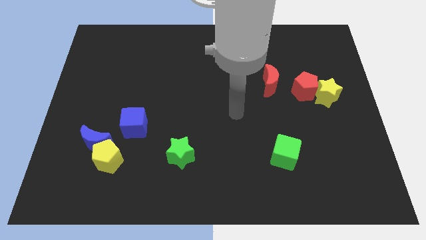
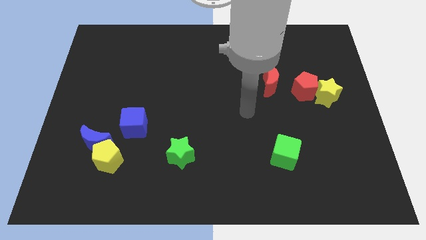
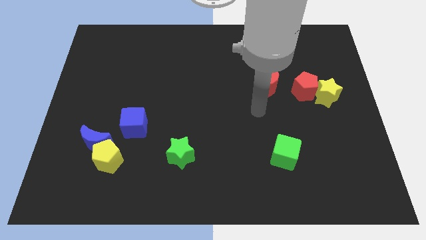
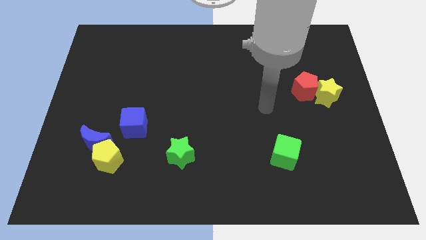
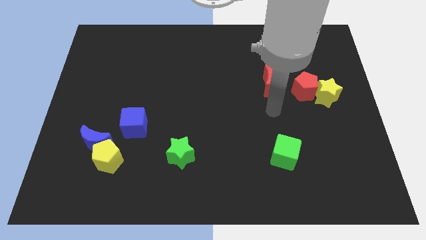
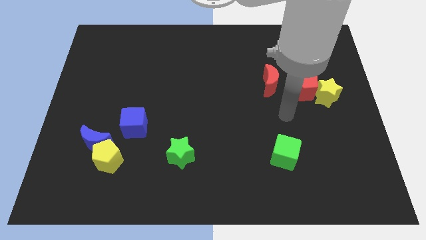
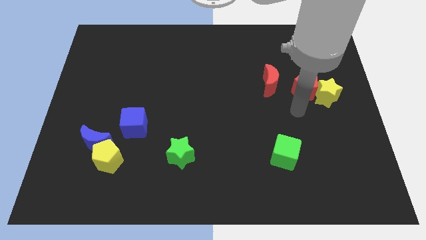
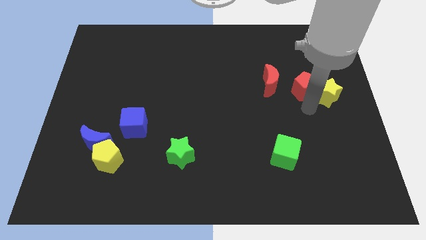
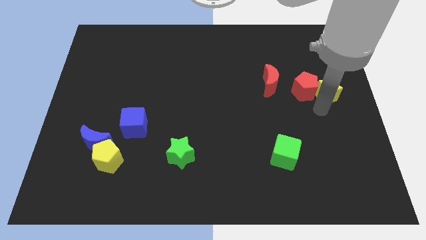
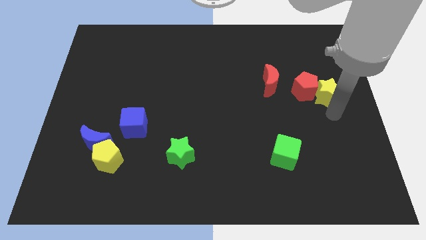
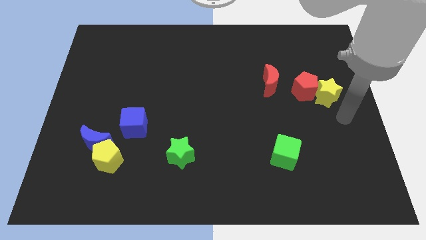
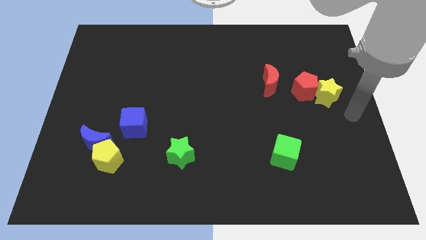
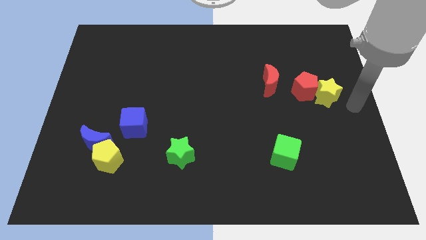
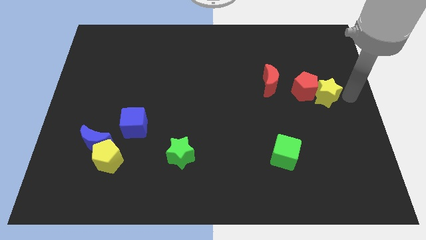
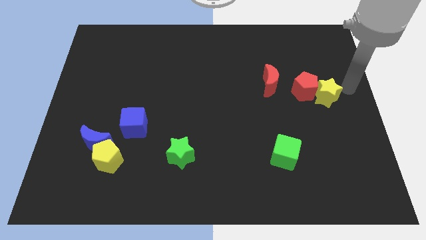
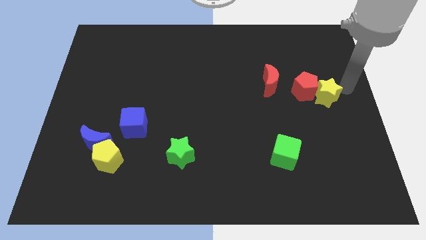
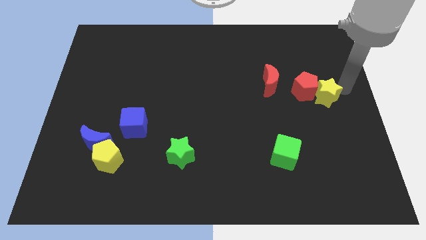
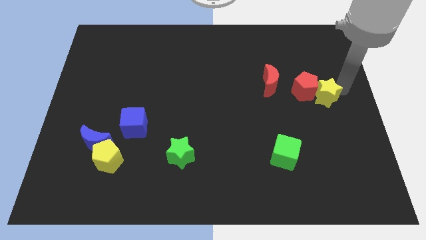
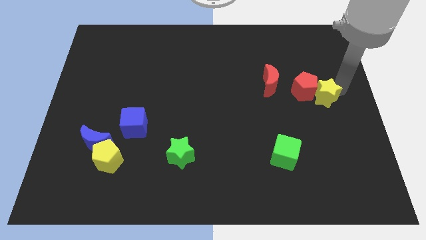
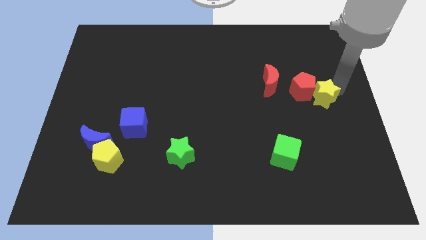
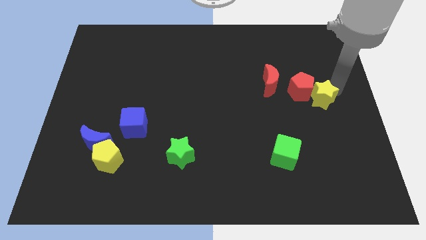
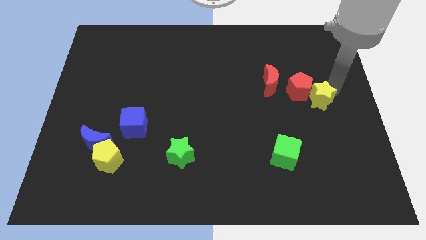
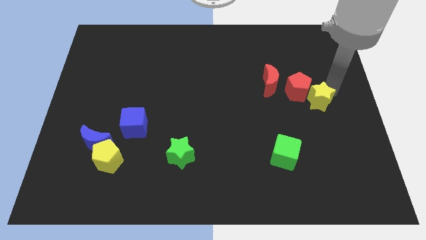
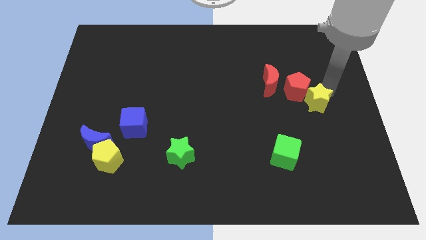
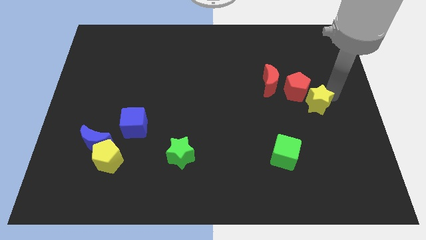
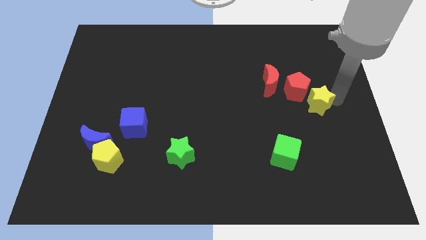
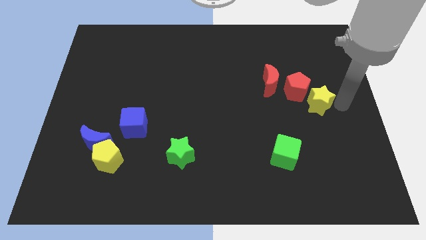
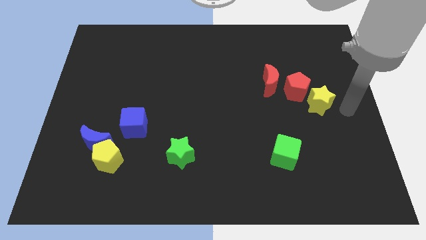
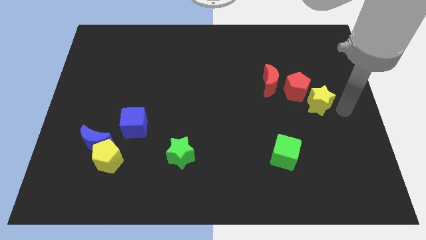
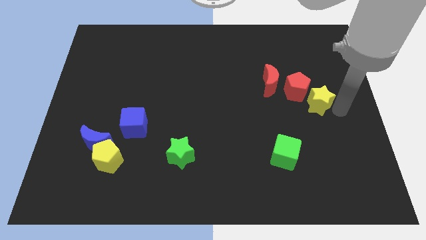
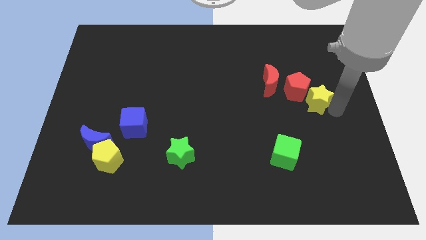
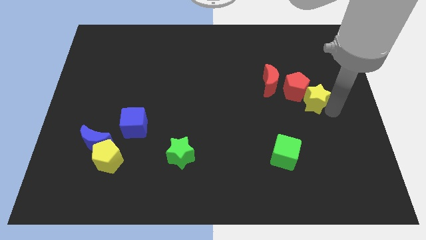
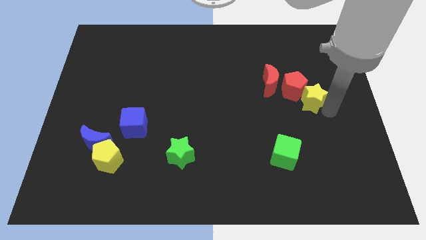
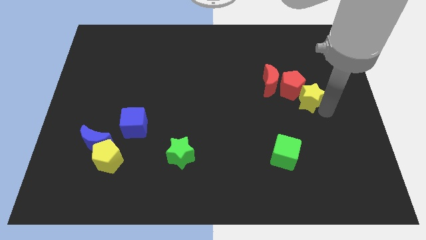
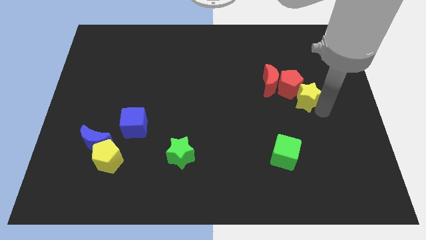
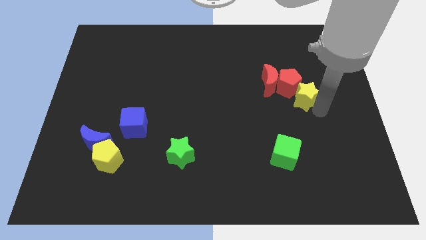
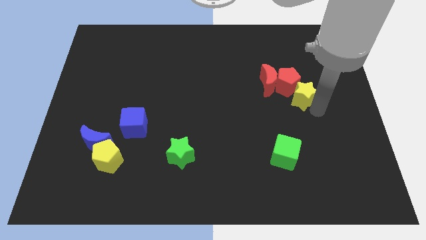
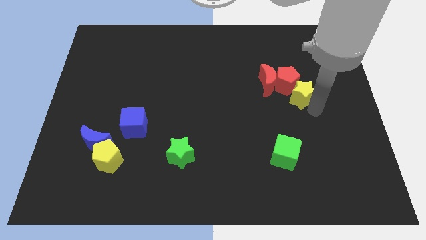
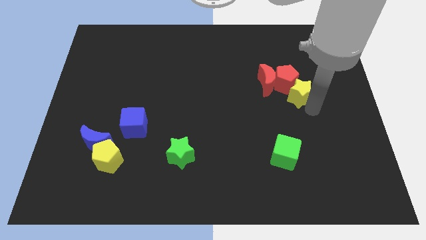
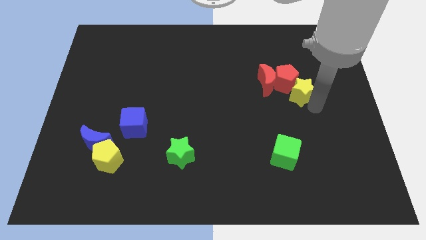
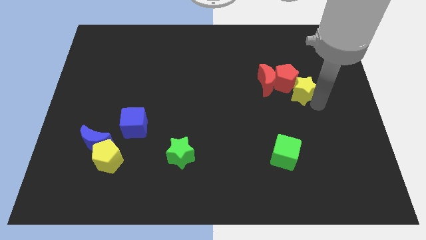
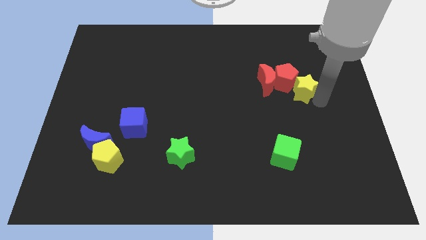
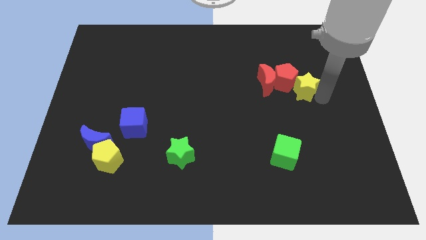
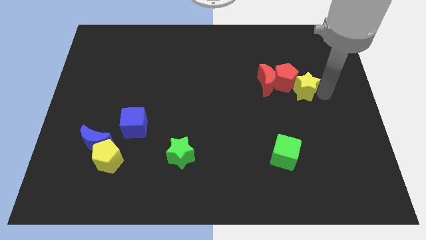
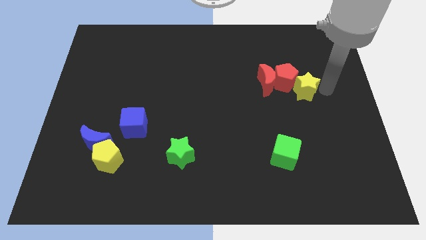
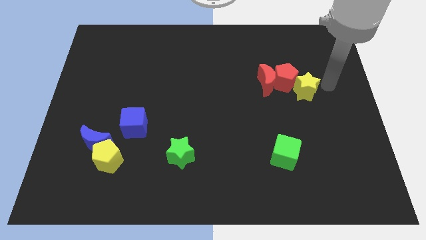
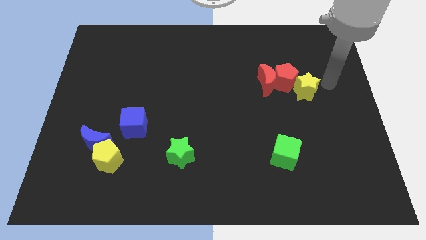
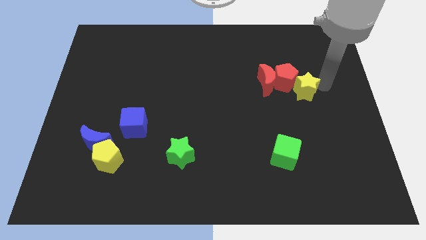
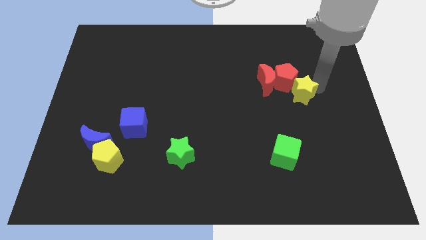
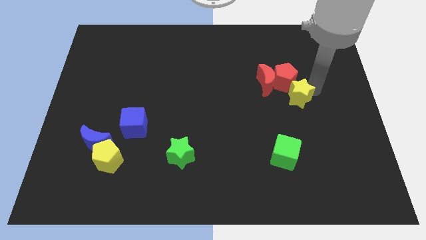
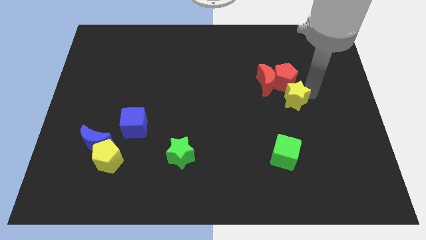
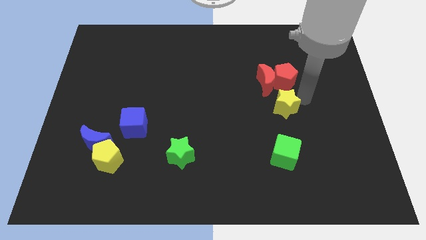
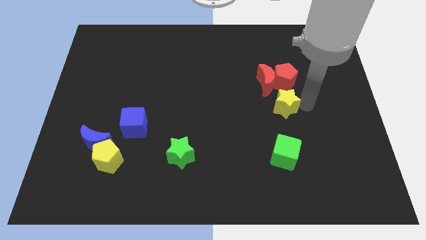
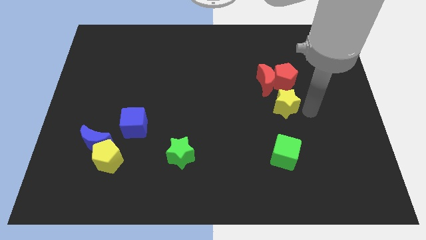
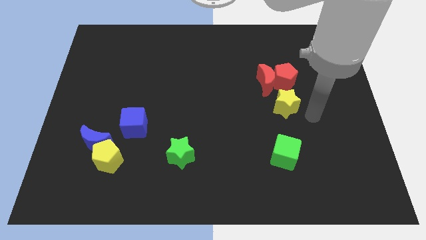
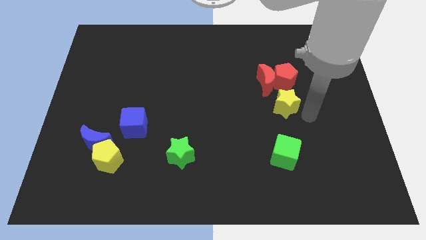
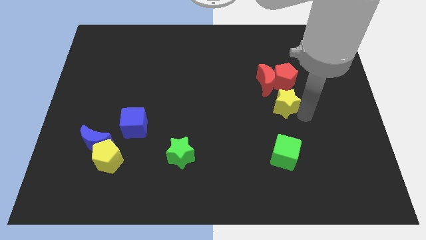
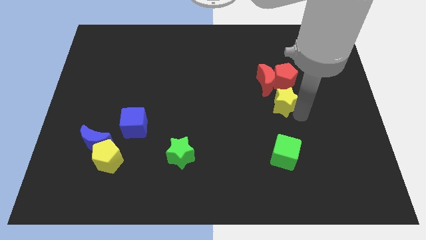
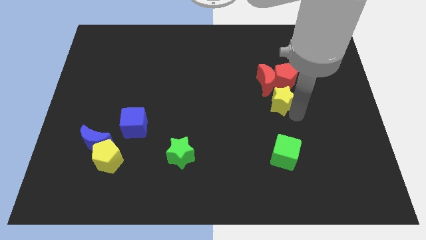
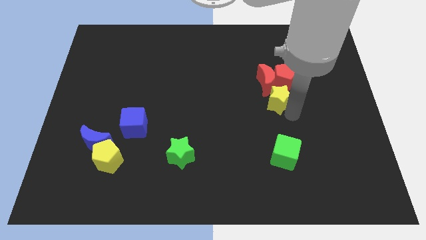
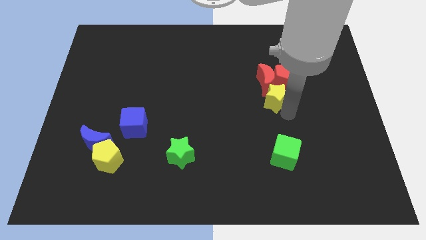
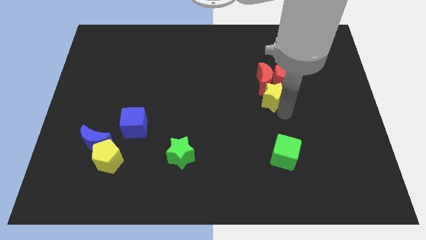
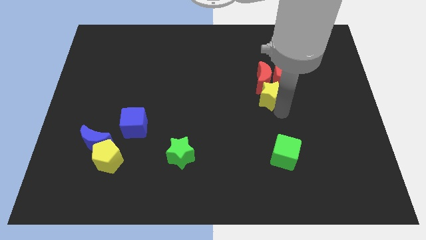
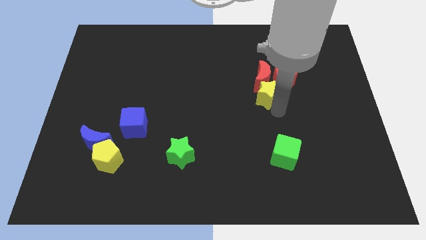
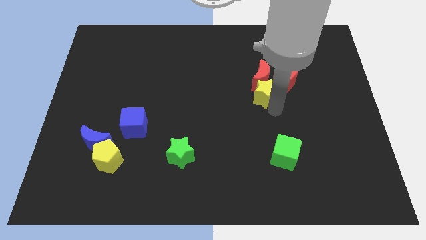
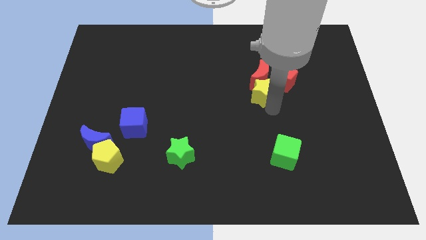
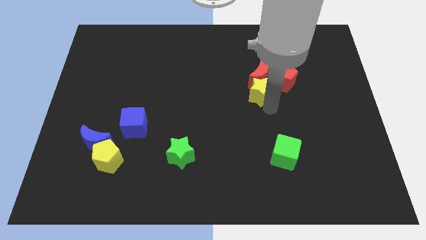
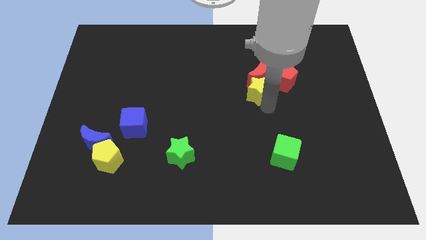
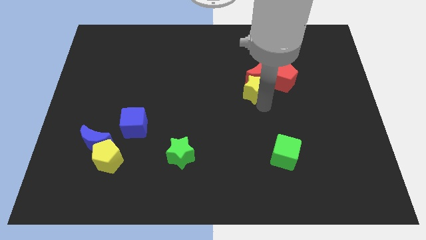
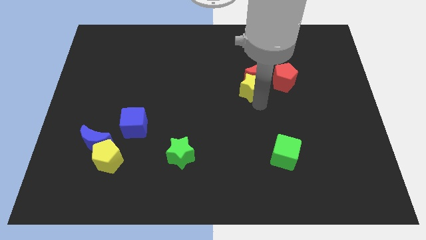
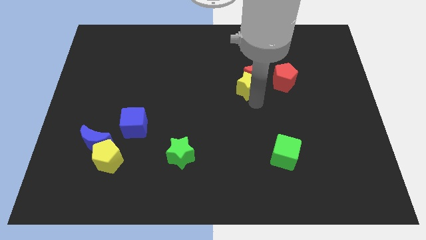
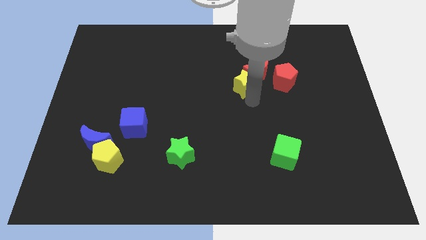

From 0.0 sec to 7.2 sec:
slide the yellow star to the left of the red moon
